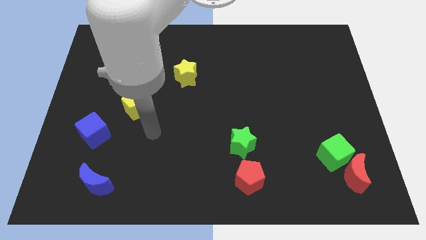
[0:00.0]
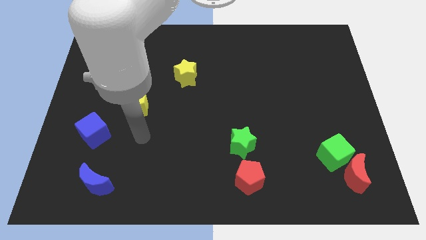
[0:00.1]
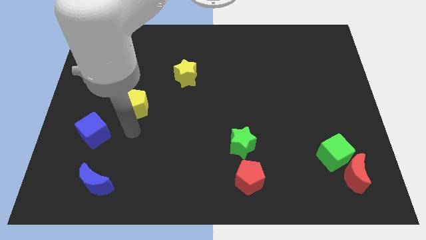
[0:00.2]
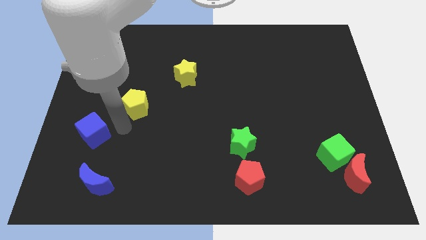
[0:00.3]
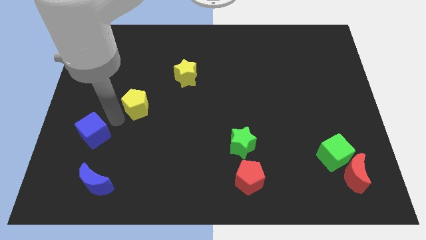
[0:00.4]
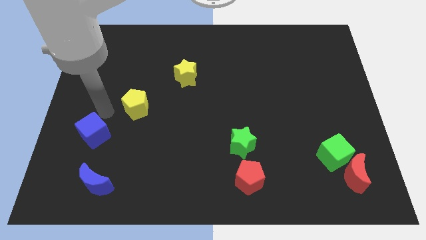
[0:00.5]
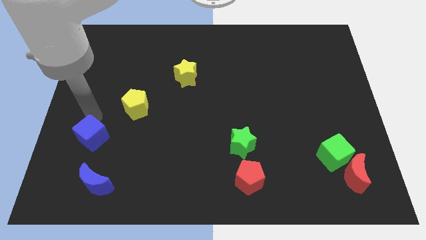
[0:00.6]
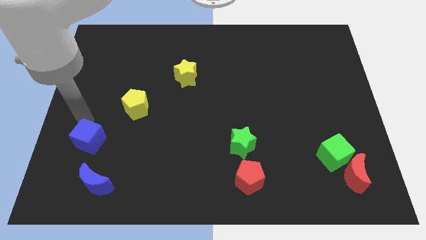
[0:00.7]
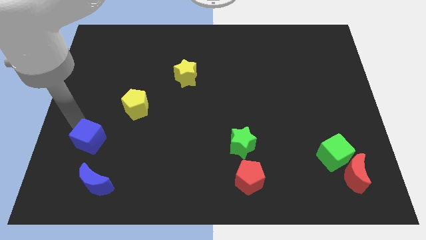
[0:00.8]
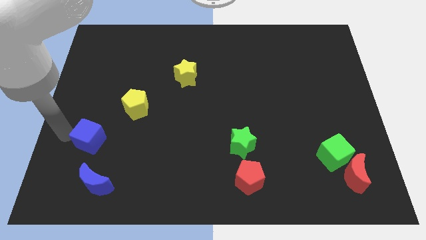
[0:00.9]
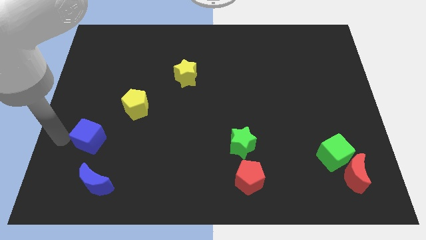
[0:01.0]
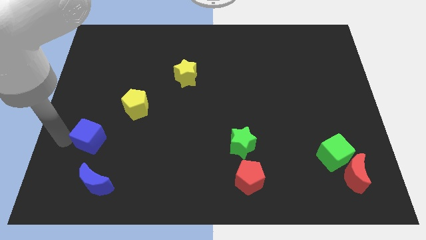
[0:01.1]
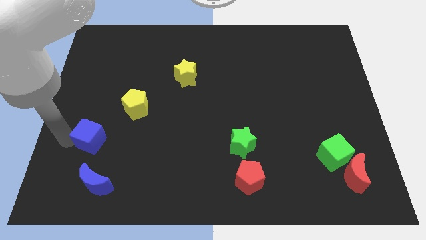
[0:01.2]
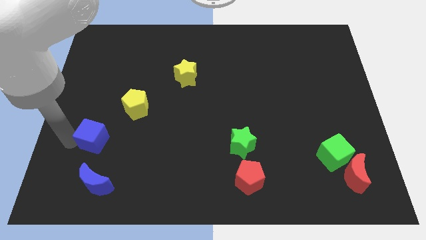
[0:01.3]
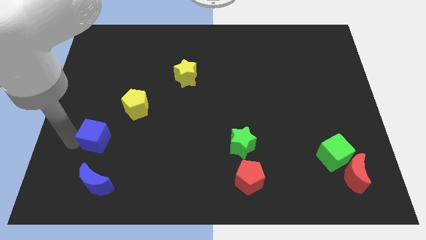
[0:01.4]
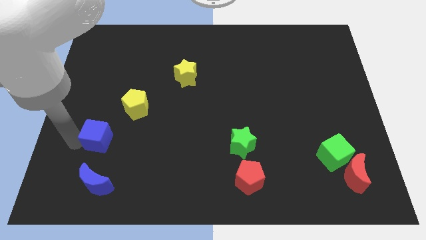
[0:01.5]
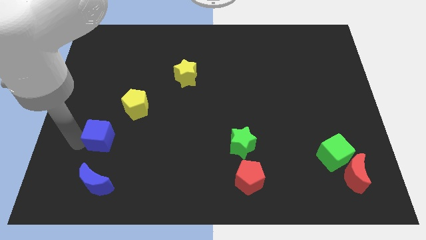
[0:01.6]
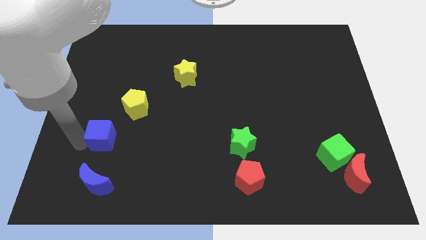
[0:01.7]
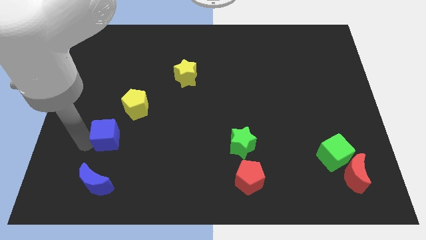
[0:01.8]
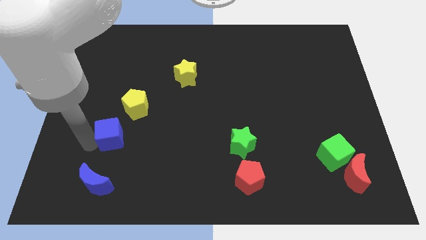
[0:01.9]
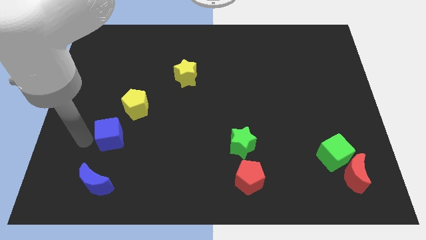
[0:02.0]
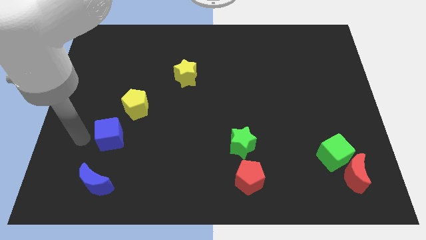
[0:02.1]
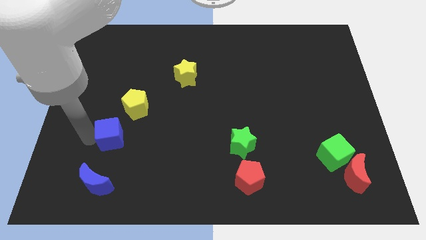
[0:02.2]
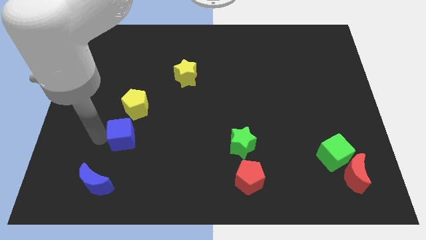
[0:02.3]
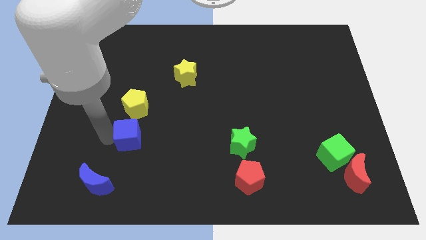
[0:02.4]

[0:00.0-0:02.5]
push the blue cube somewhat right

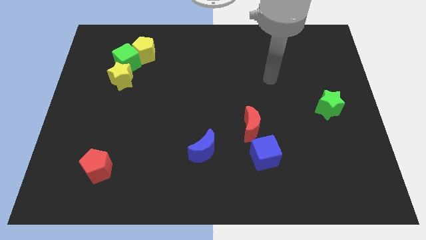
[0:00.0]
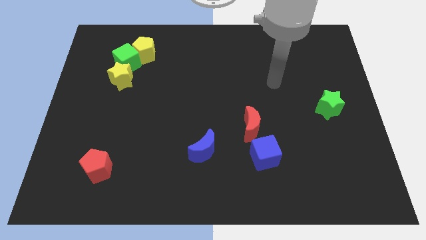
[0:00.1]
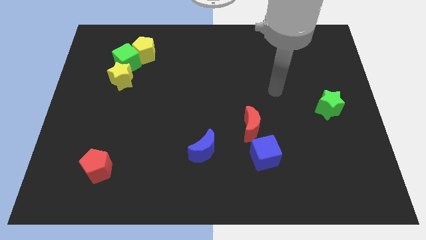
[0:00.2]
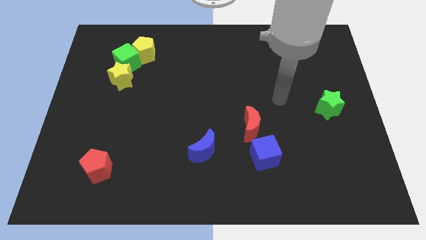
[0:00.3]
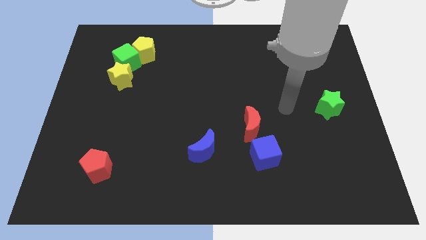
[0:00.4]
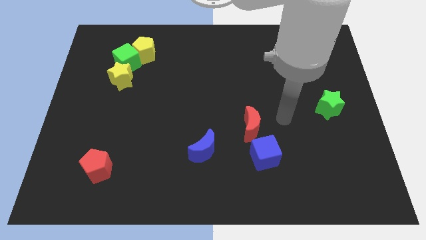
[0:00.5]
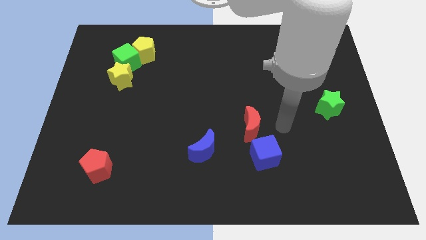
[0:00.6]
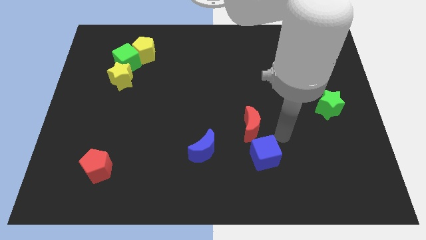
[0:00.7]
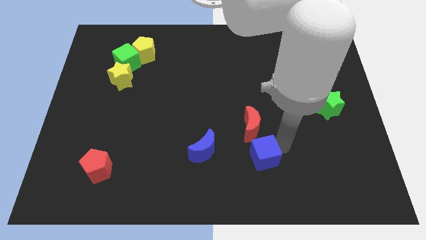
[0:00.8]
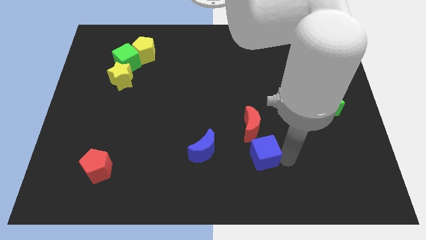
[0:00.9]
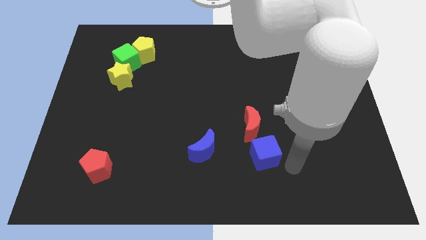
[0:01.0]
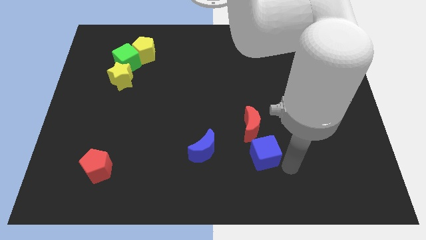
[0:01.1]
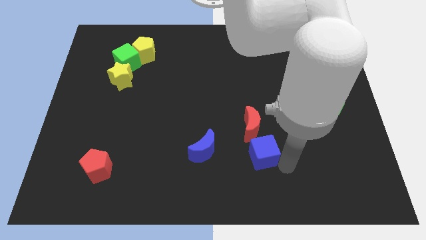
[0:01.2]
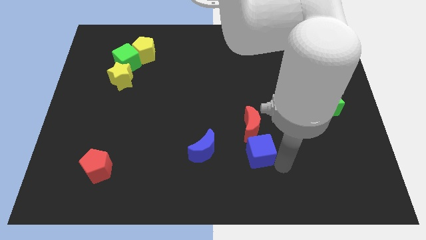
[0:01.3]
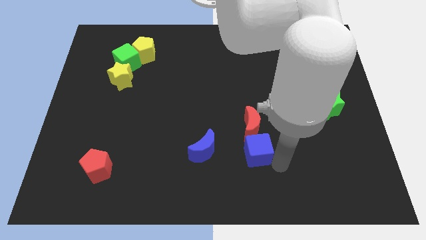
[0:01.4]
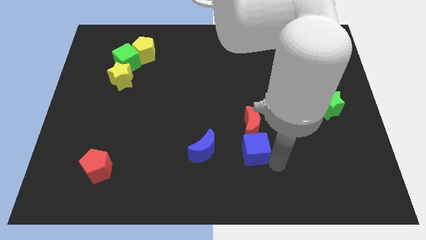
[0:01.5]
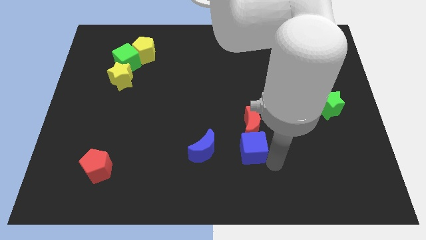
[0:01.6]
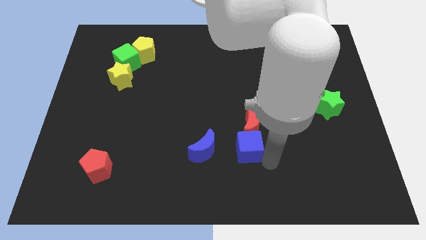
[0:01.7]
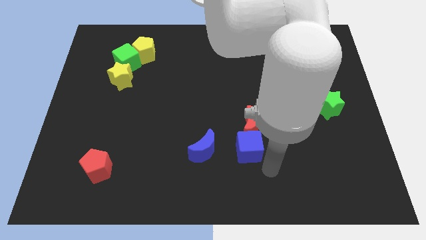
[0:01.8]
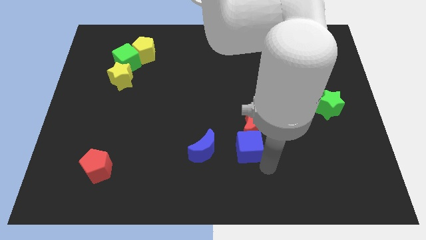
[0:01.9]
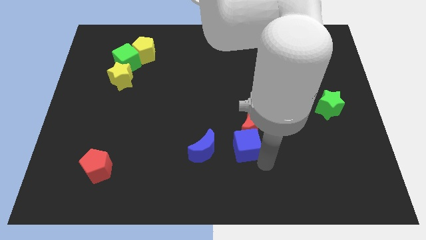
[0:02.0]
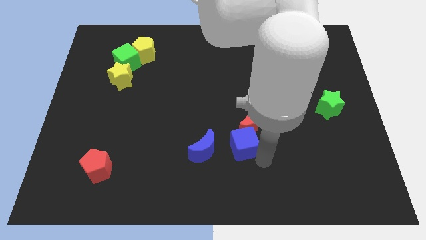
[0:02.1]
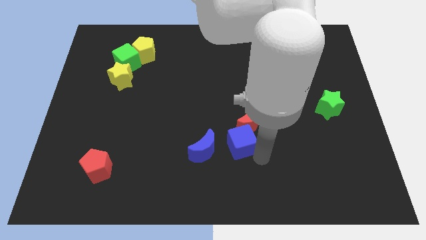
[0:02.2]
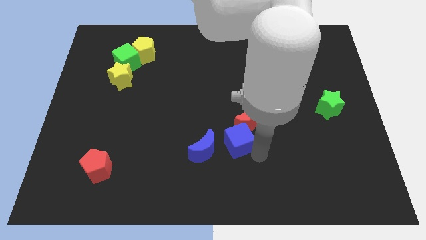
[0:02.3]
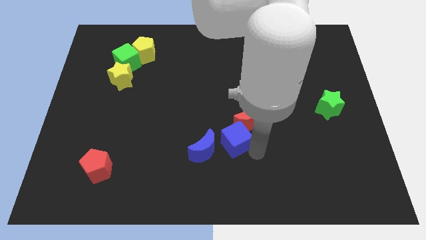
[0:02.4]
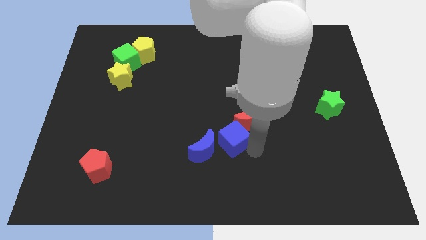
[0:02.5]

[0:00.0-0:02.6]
push the blue cube up and to the left diagonally somewhat

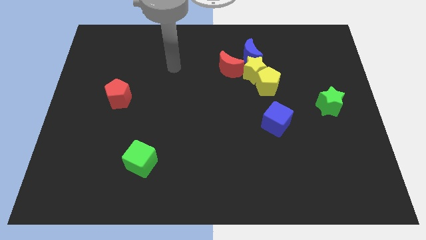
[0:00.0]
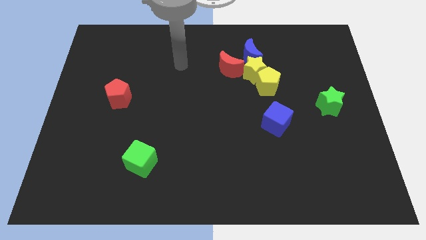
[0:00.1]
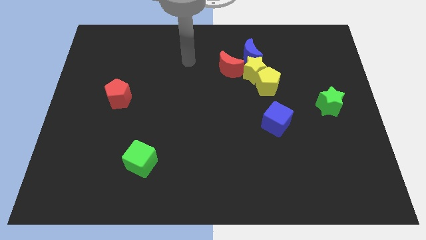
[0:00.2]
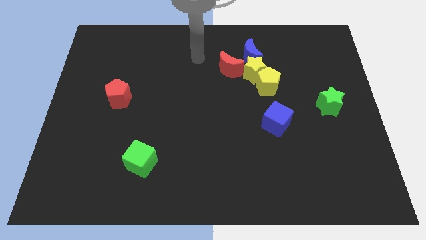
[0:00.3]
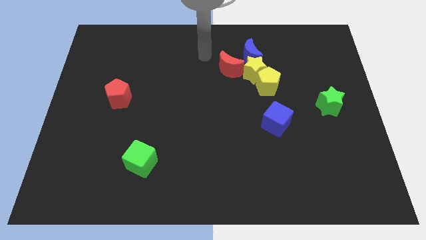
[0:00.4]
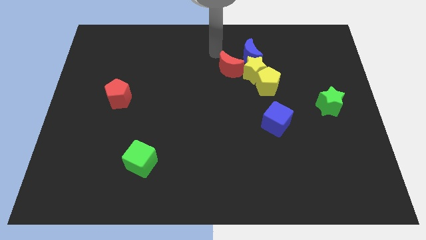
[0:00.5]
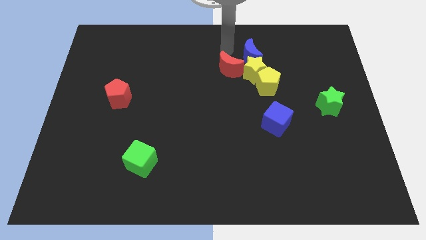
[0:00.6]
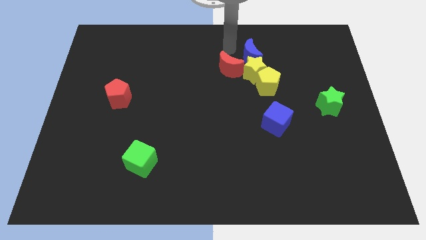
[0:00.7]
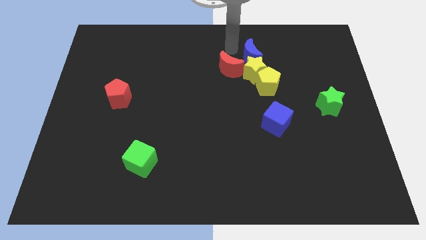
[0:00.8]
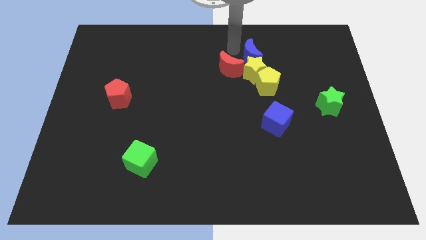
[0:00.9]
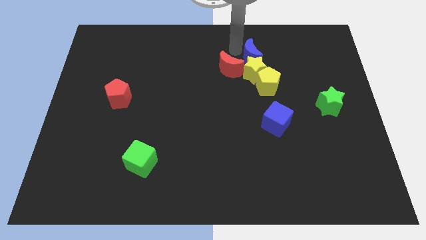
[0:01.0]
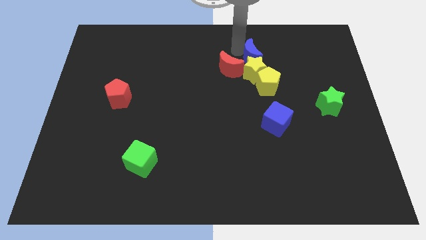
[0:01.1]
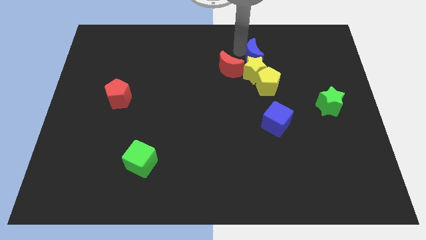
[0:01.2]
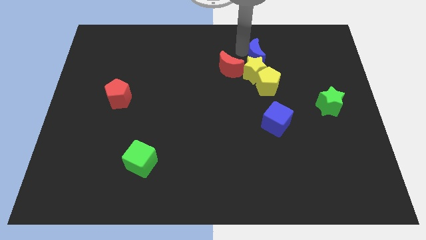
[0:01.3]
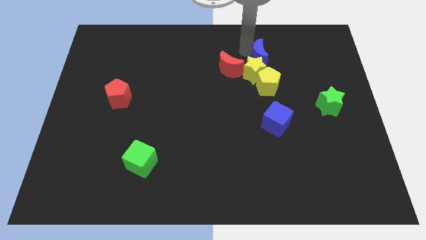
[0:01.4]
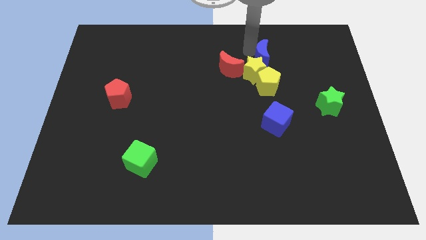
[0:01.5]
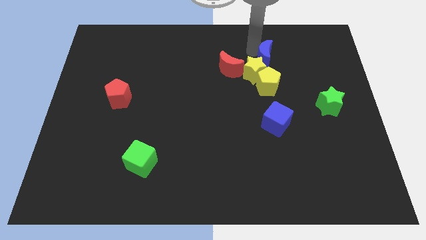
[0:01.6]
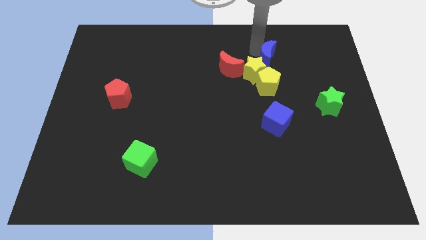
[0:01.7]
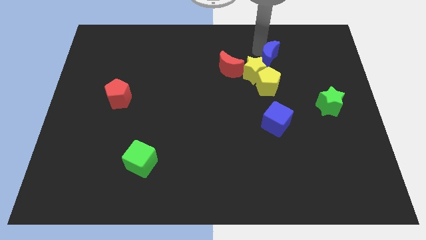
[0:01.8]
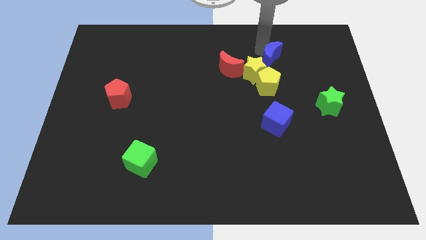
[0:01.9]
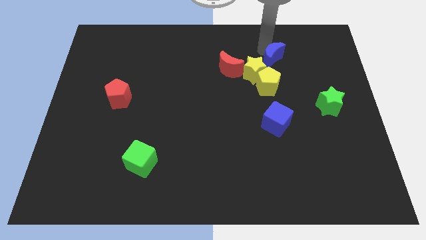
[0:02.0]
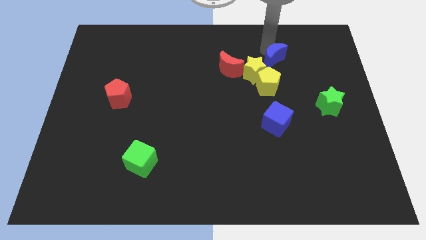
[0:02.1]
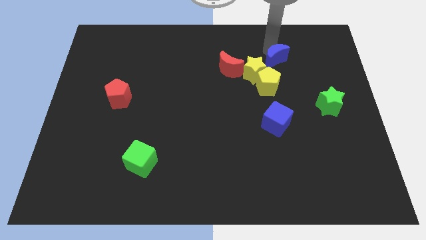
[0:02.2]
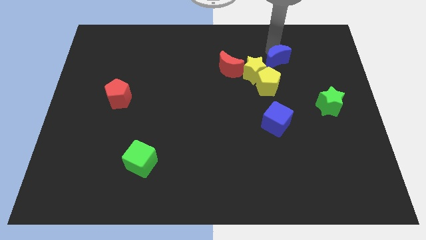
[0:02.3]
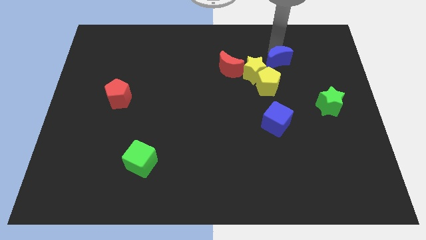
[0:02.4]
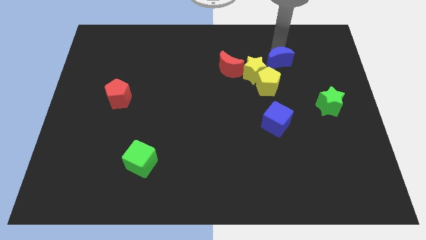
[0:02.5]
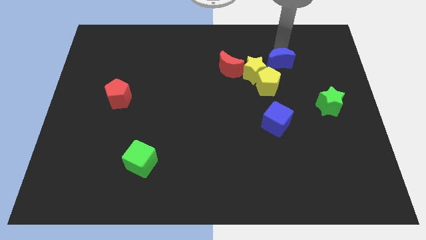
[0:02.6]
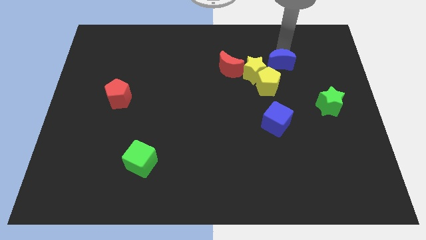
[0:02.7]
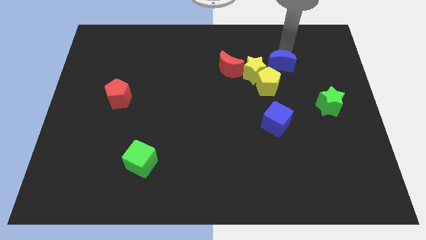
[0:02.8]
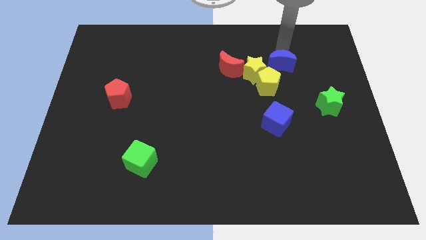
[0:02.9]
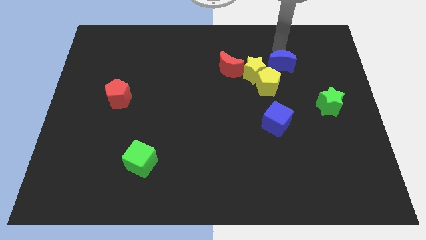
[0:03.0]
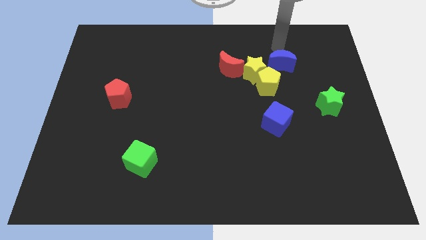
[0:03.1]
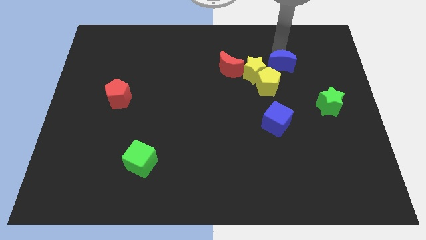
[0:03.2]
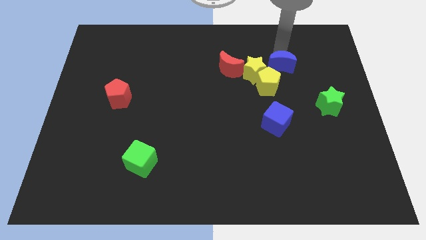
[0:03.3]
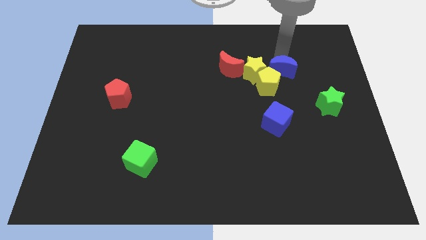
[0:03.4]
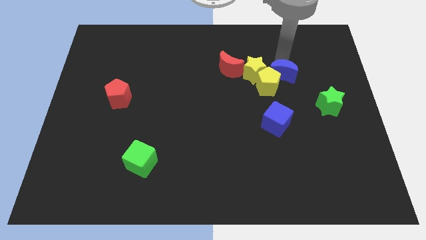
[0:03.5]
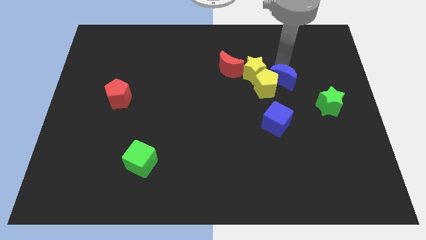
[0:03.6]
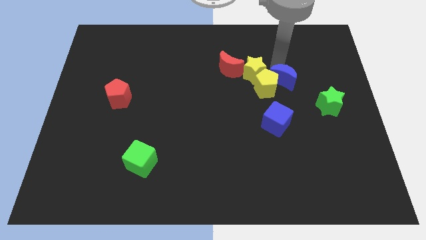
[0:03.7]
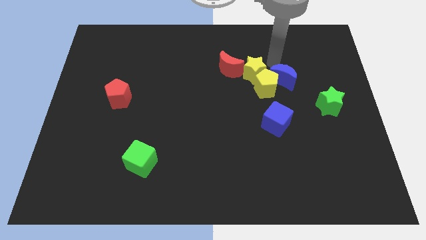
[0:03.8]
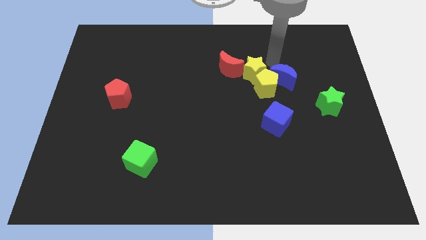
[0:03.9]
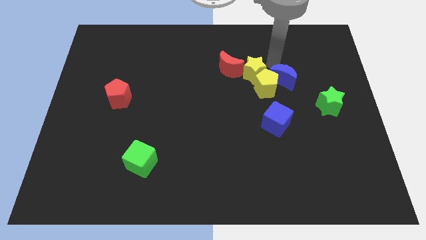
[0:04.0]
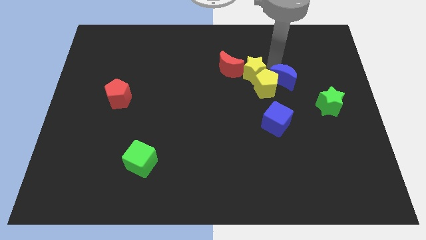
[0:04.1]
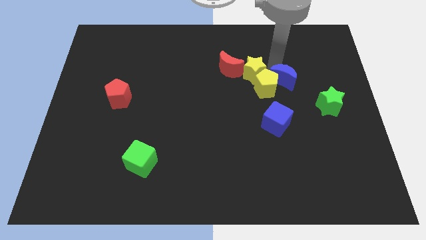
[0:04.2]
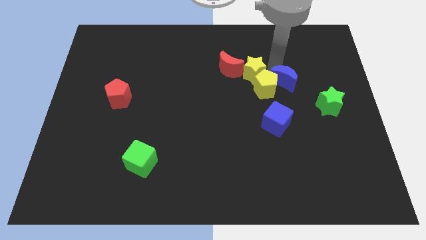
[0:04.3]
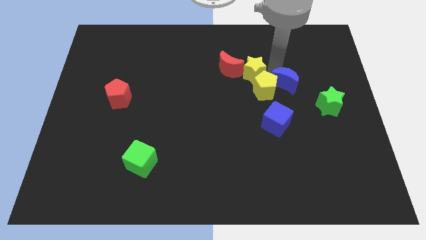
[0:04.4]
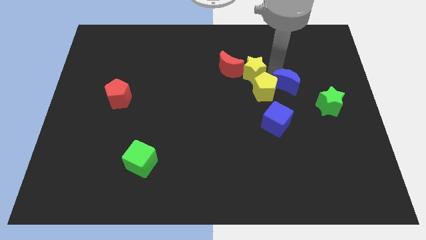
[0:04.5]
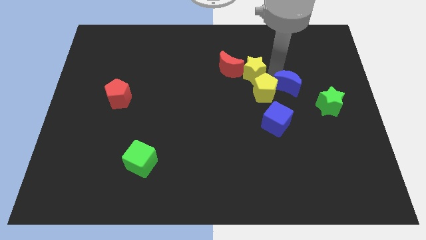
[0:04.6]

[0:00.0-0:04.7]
slightly move the blue moon downwards
